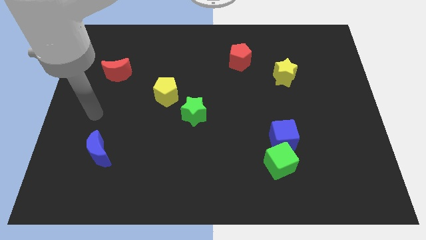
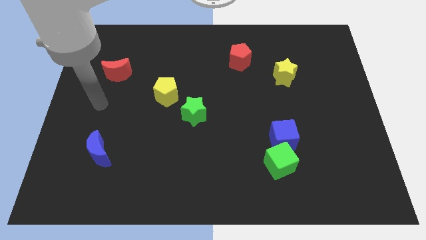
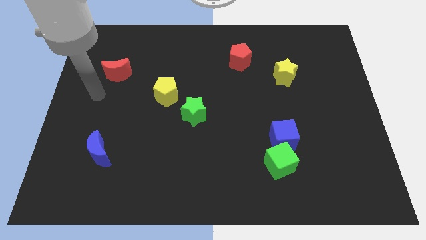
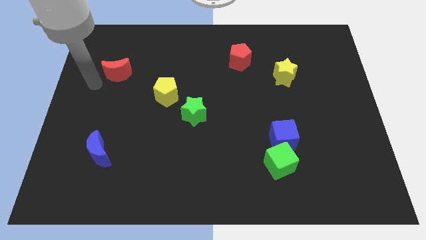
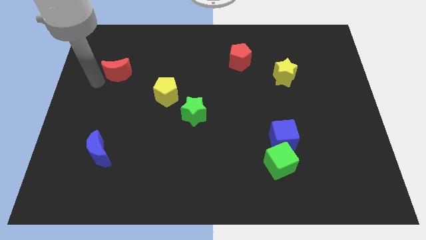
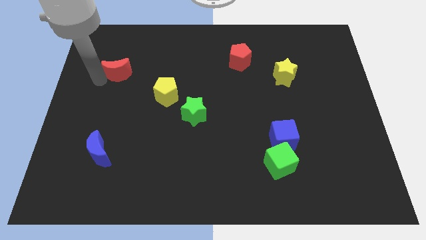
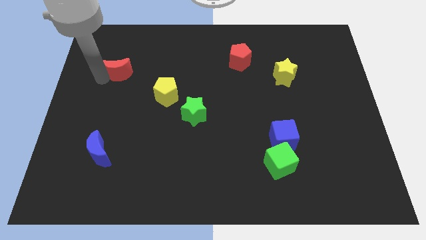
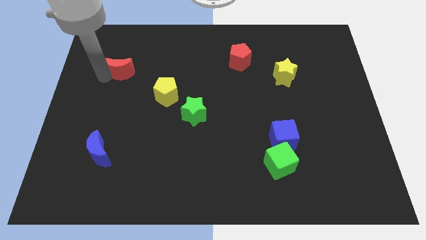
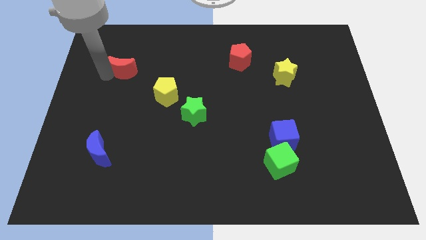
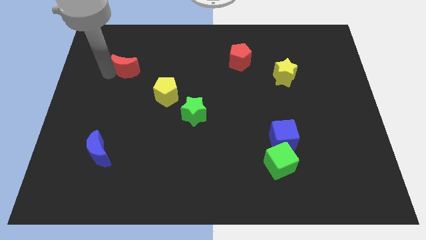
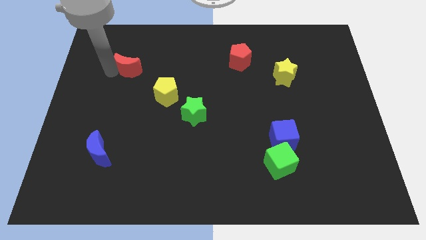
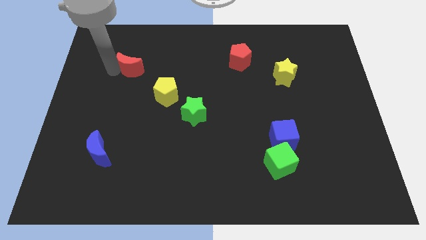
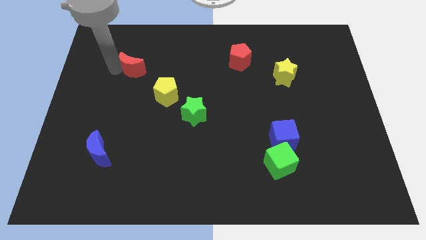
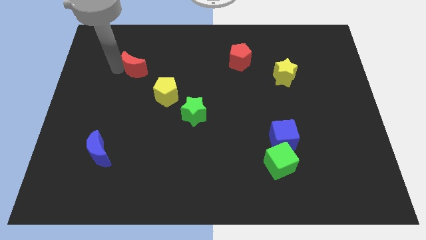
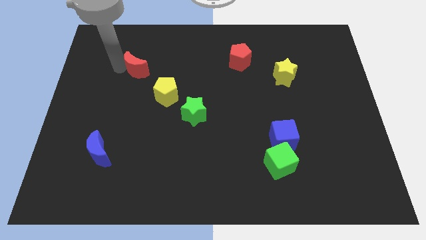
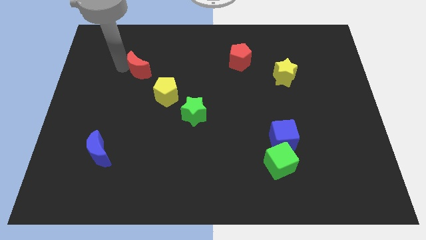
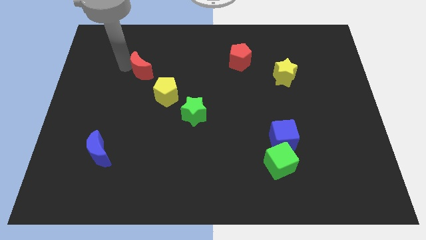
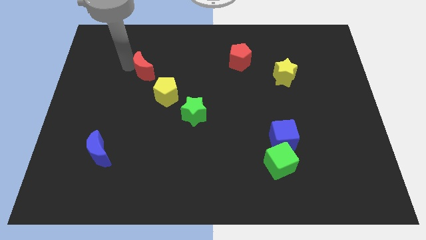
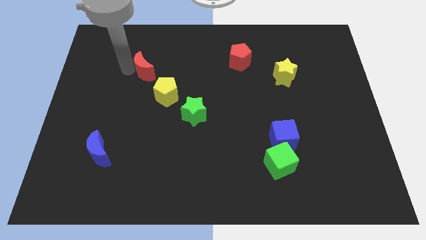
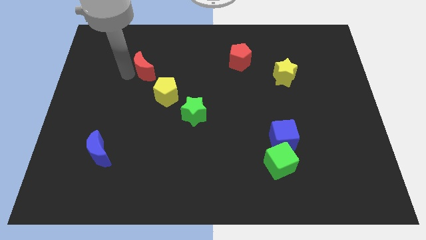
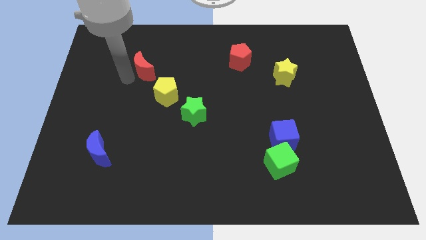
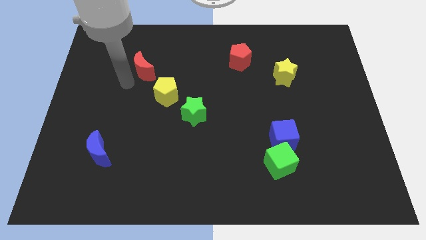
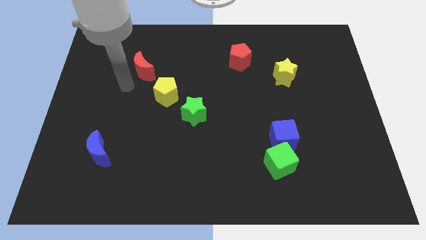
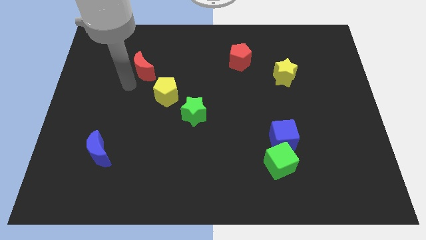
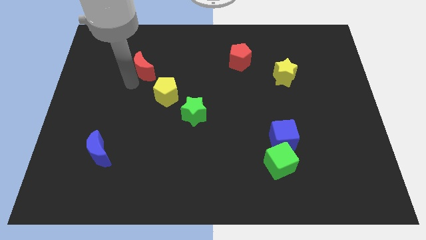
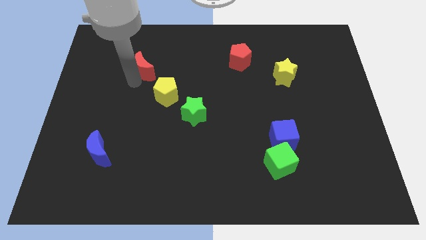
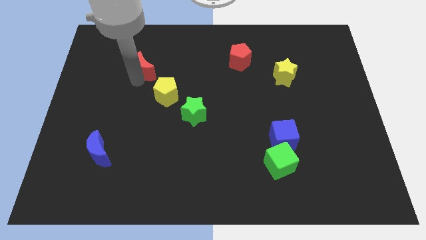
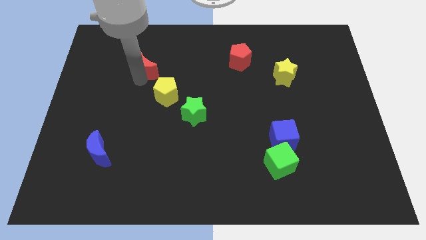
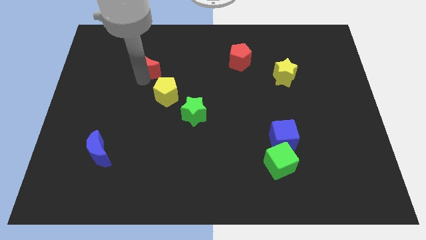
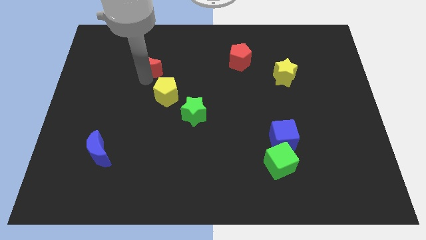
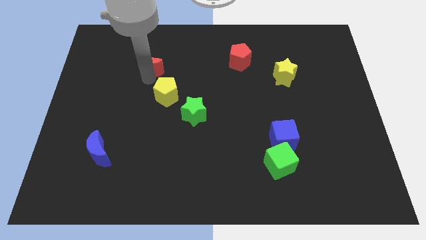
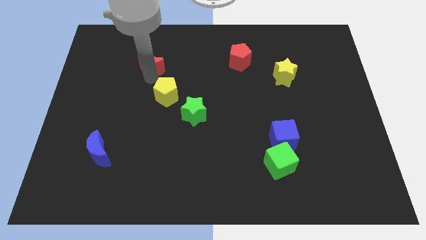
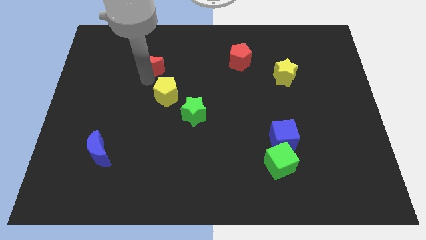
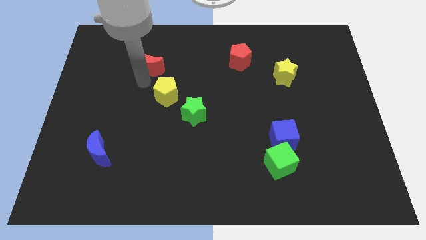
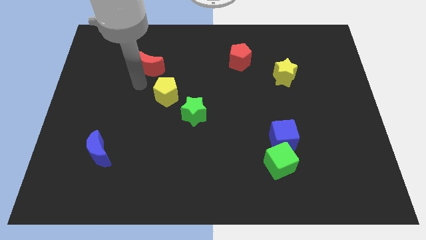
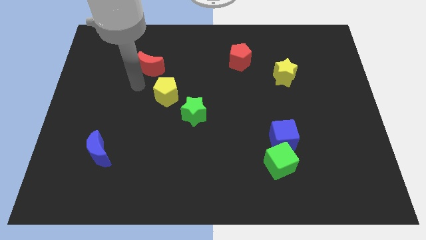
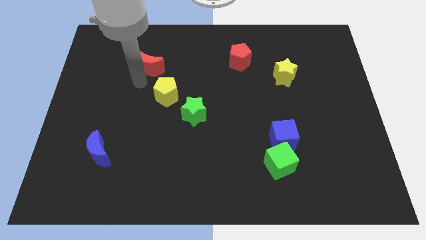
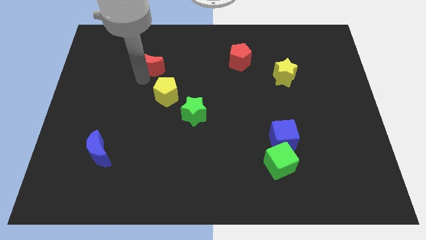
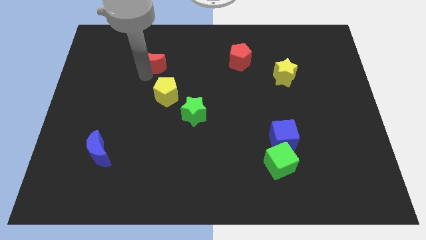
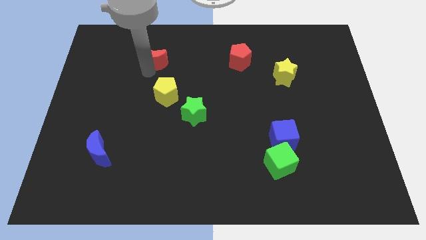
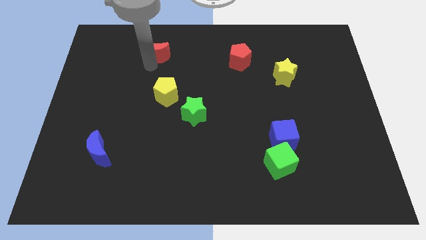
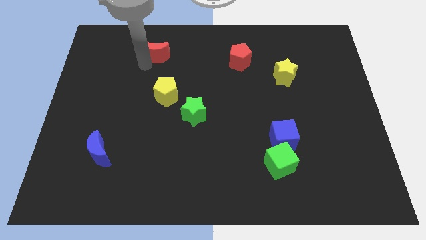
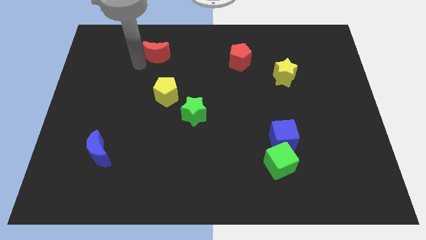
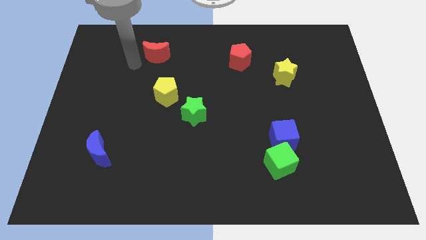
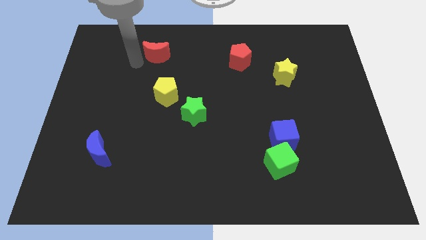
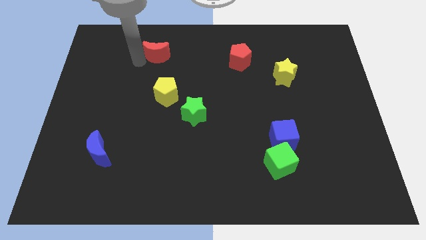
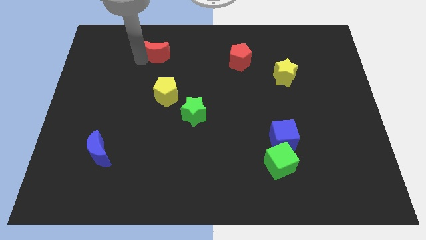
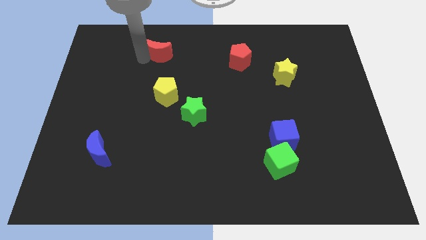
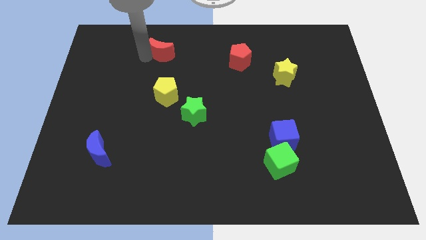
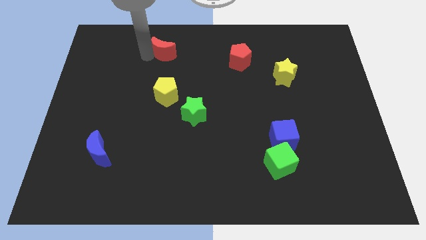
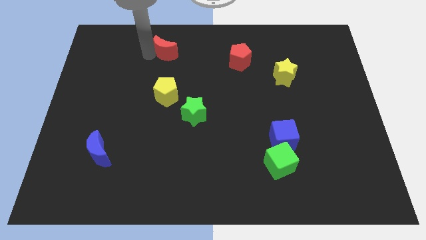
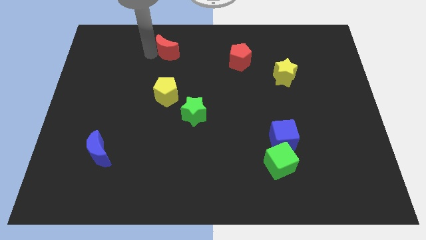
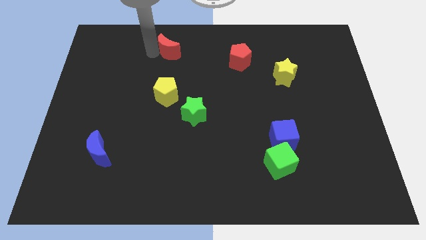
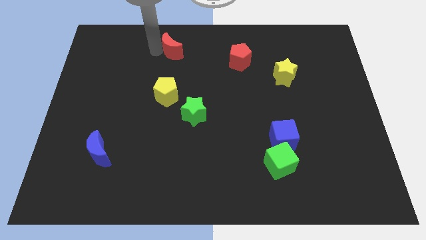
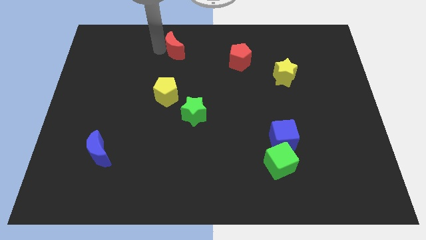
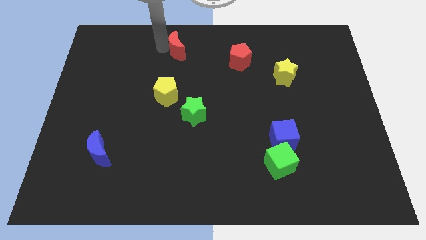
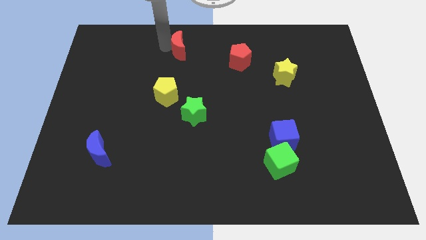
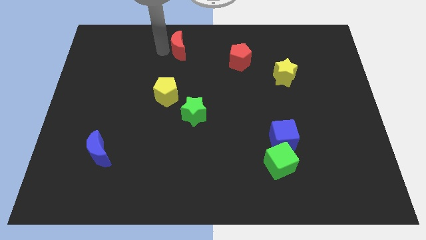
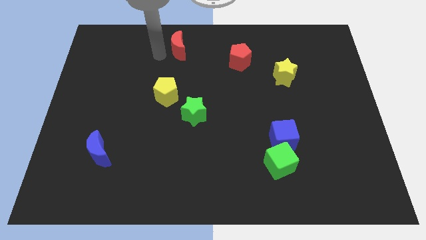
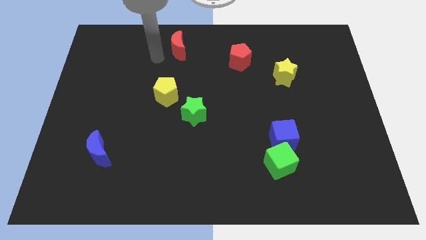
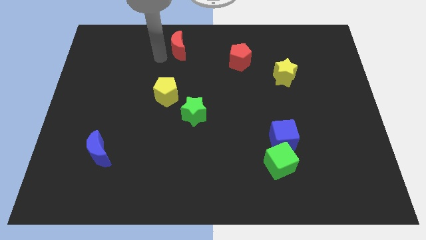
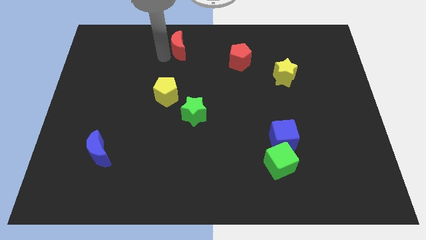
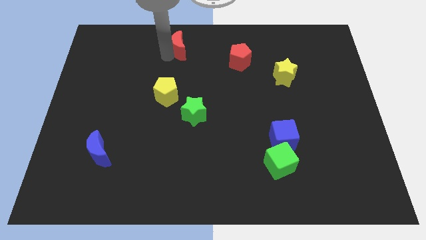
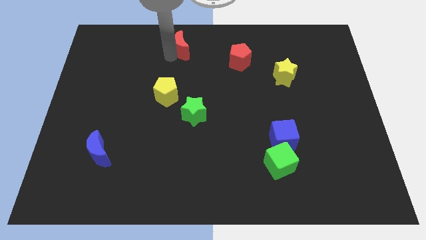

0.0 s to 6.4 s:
slide the red moon to the towards your base

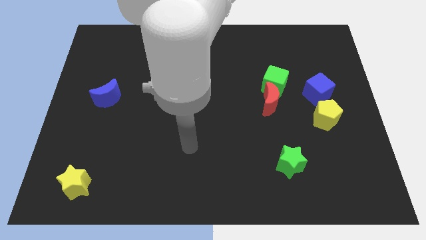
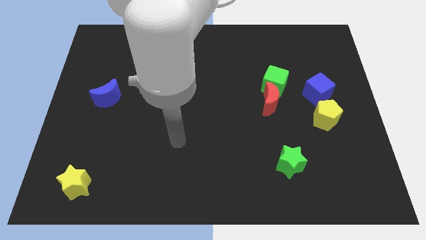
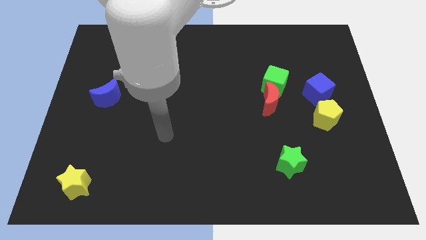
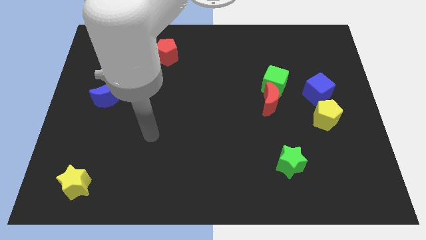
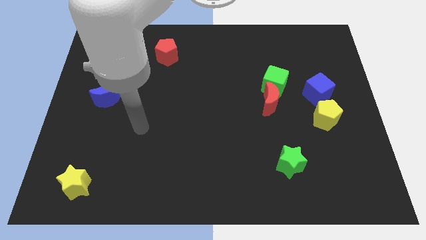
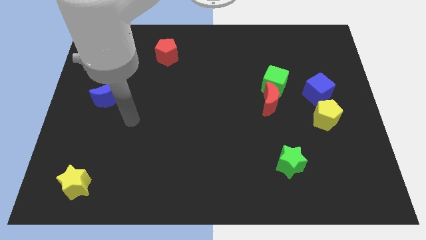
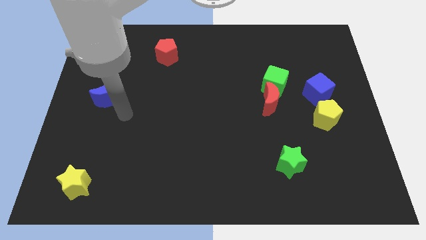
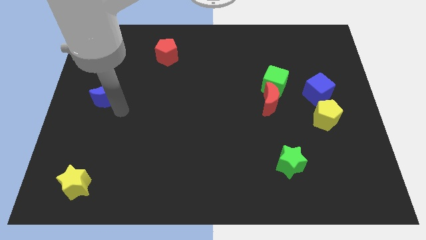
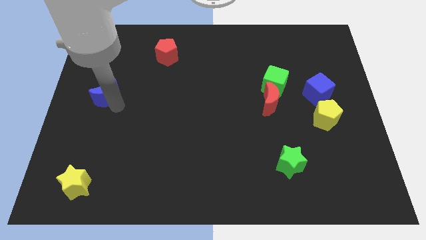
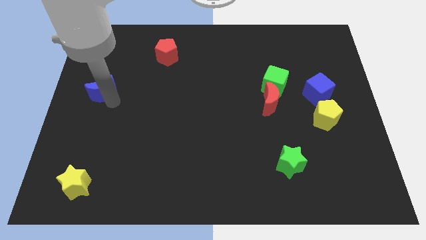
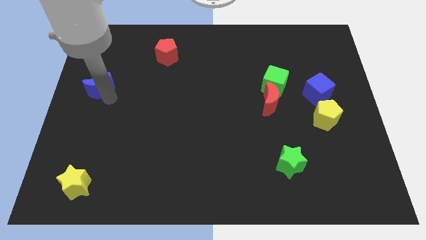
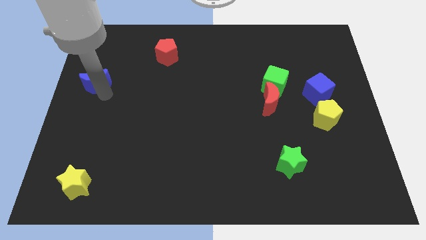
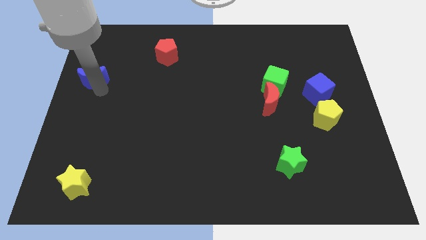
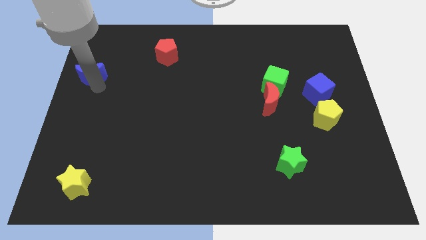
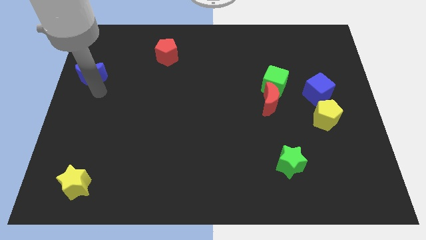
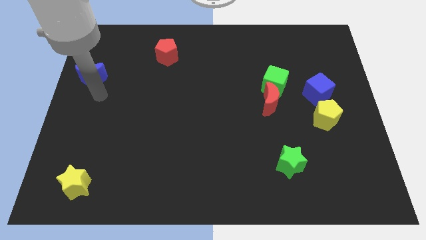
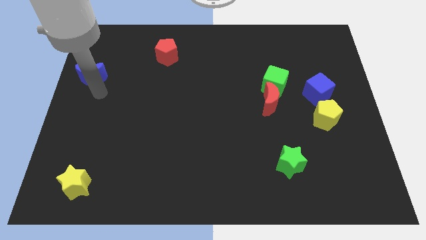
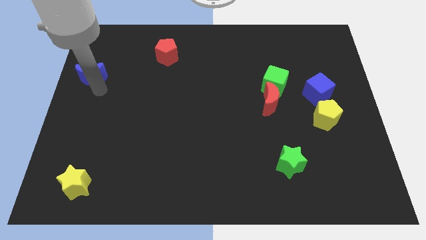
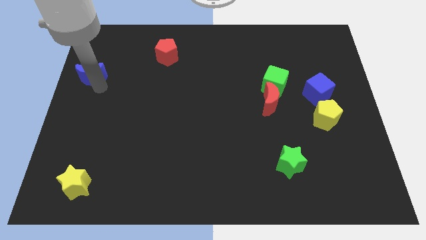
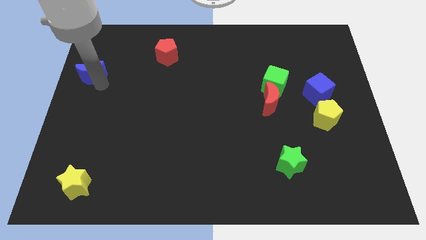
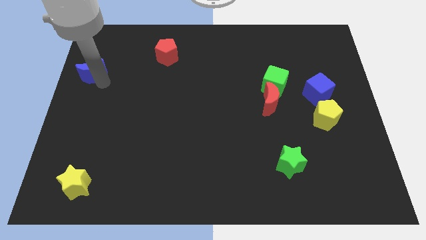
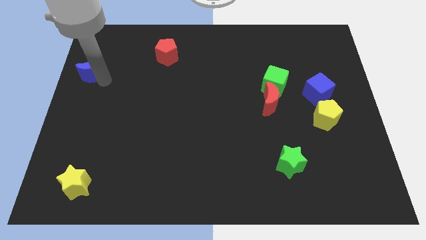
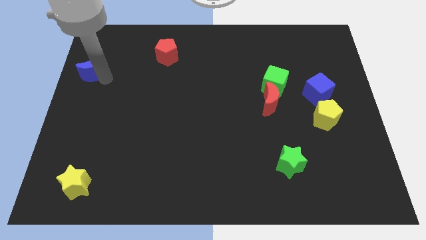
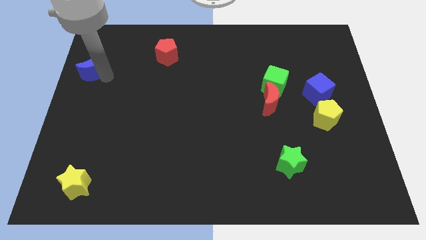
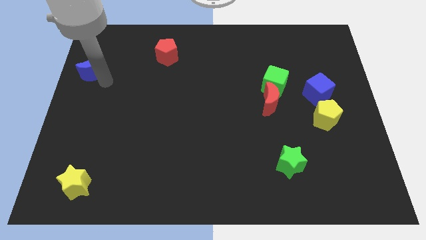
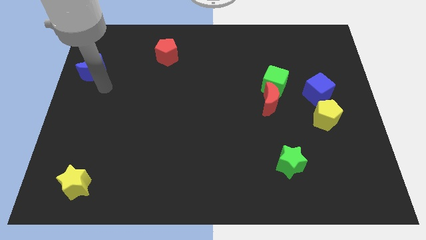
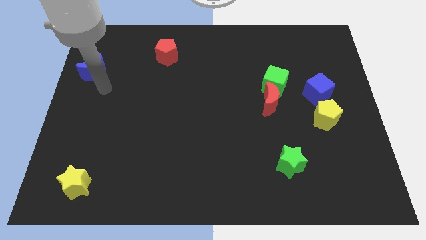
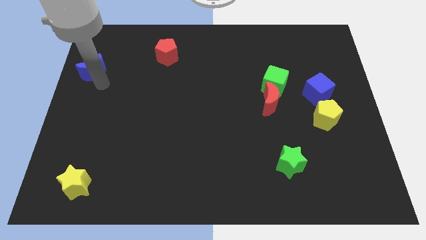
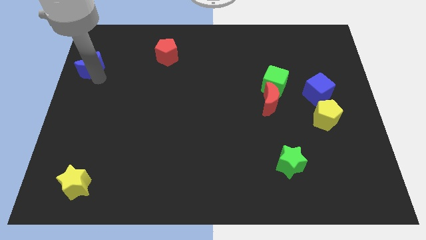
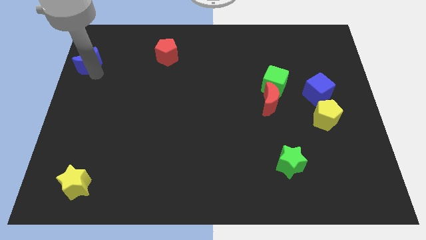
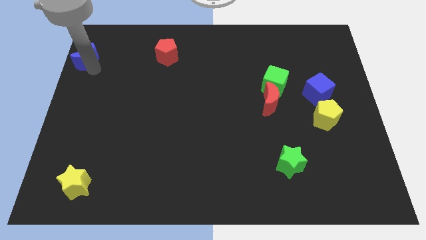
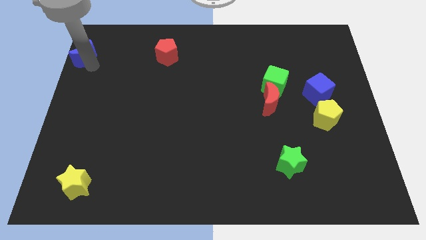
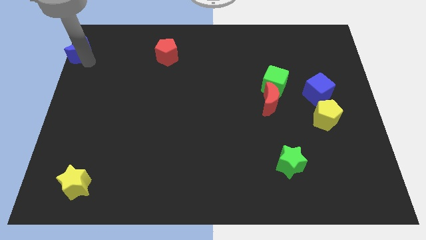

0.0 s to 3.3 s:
move the blue moon to the top left of the board
